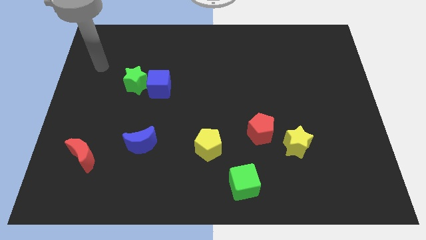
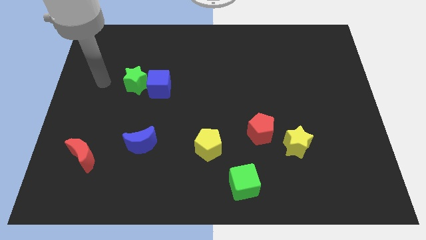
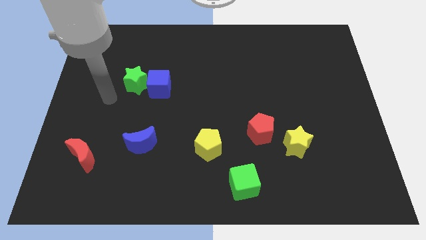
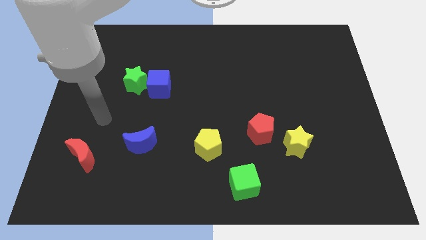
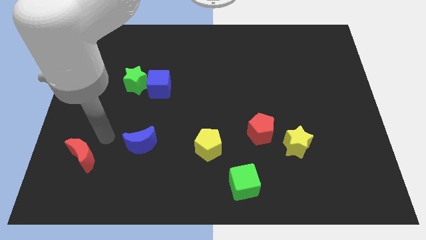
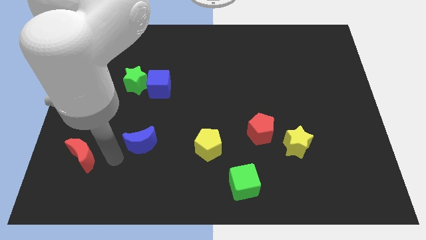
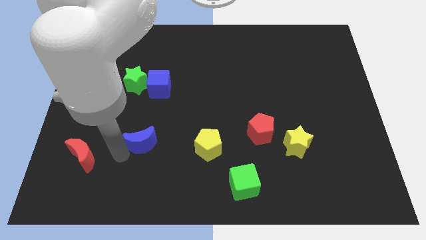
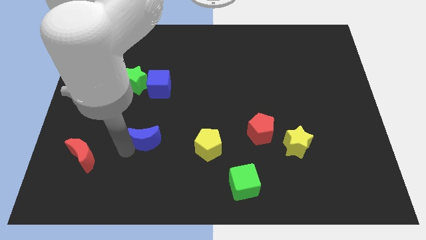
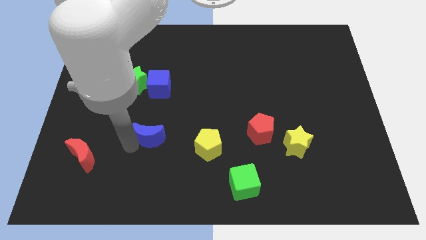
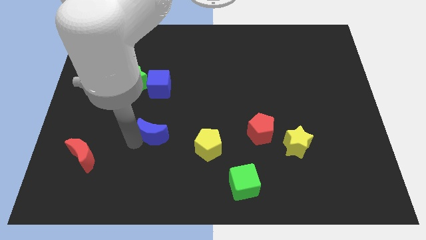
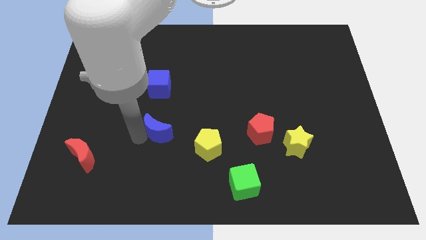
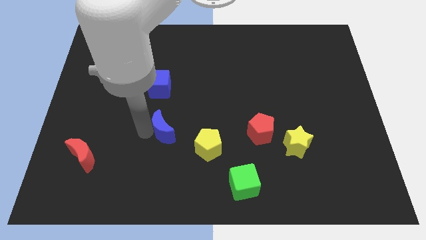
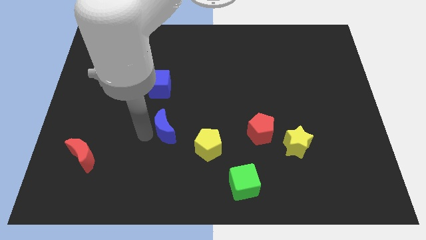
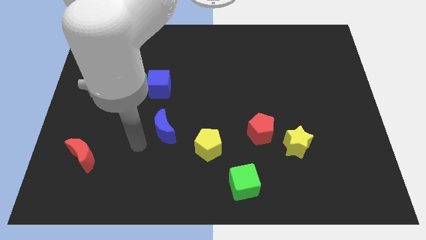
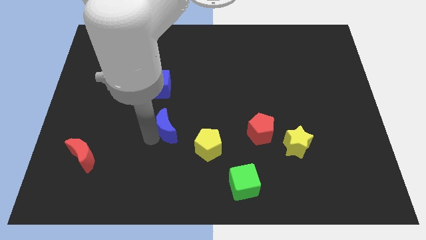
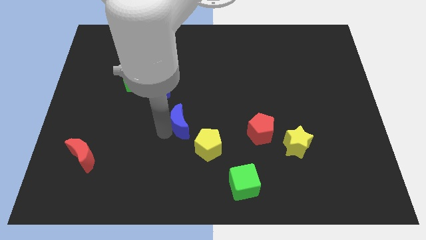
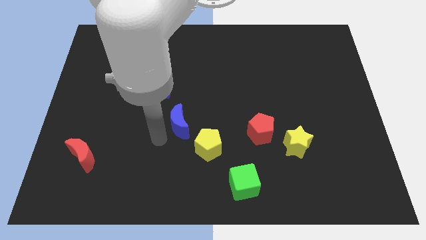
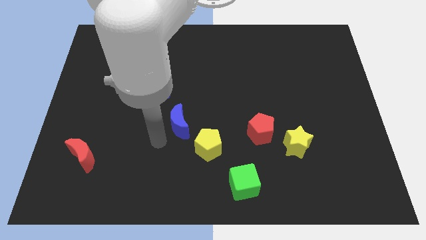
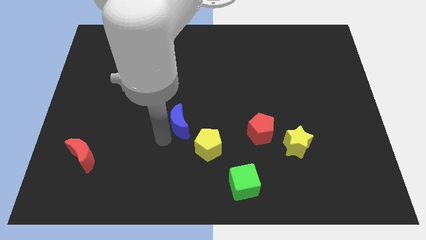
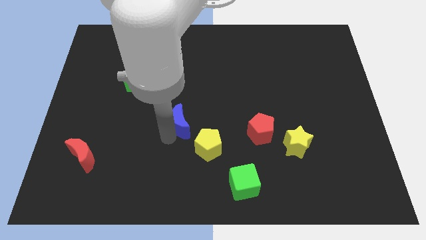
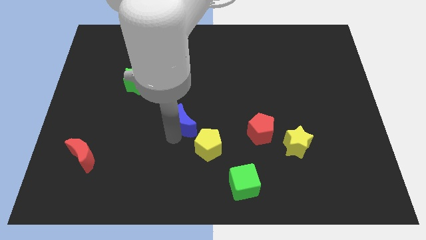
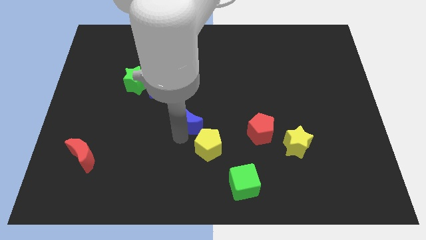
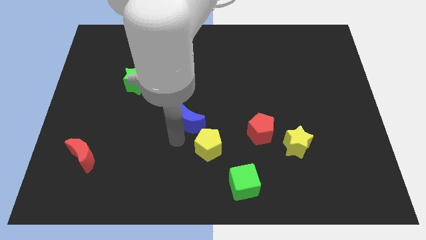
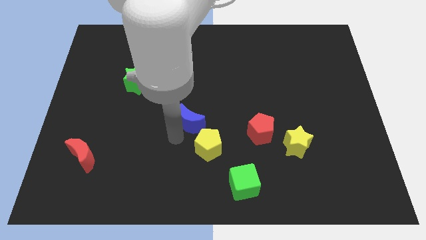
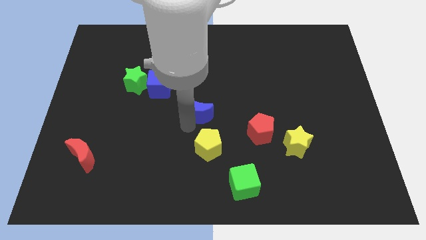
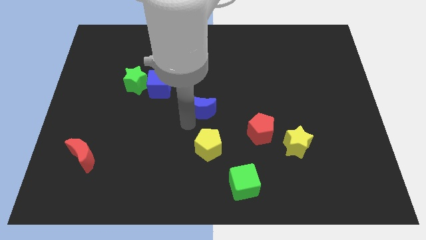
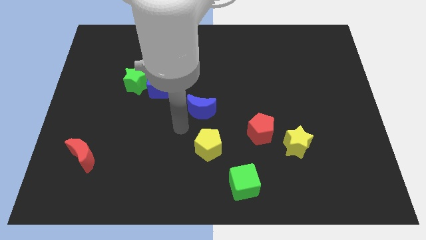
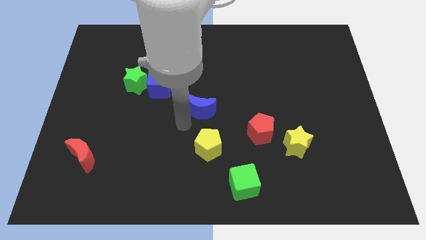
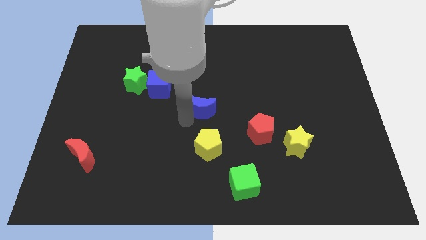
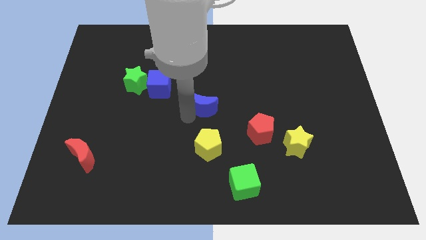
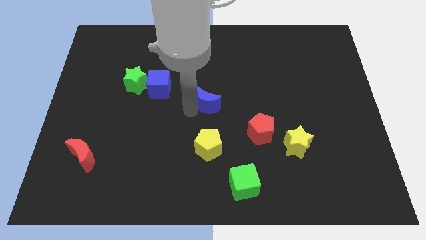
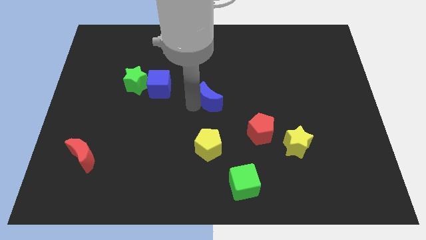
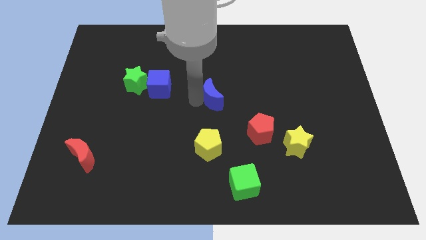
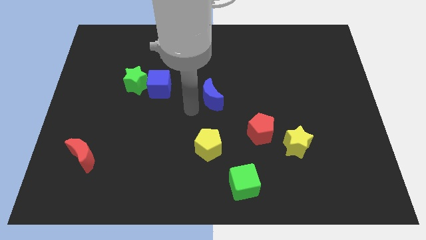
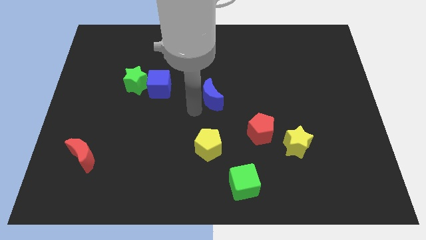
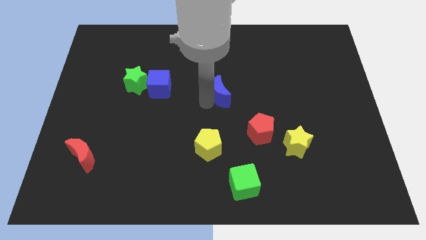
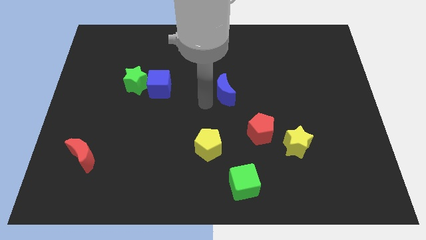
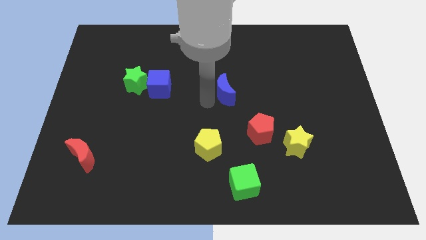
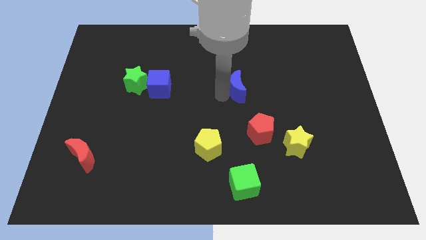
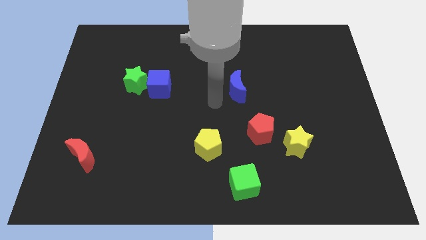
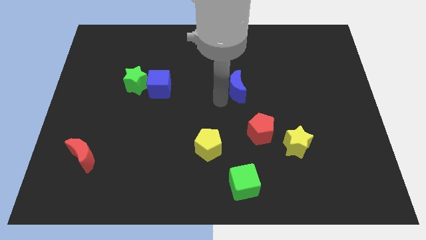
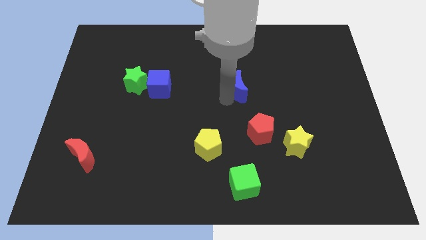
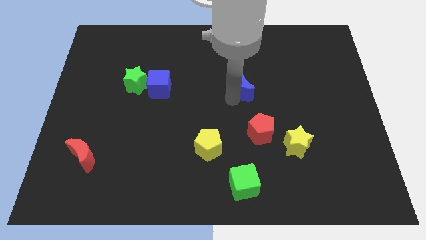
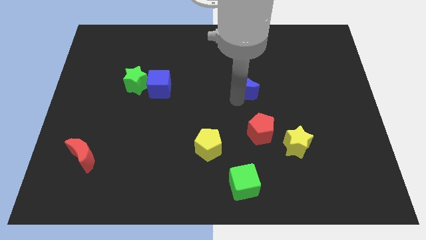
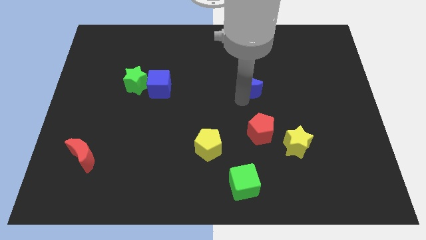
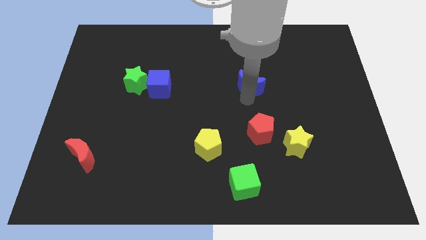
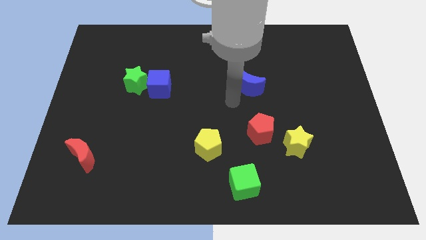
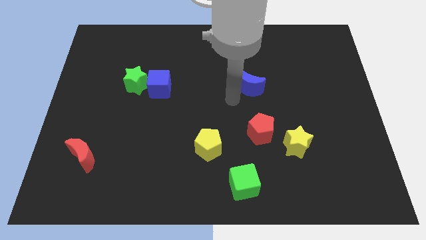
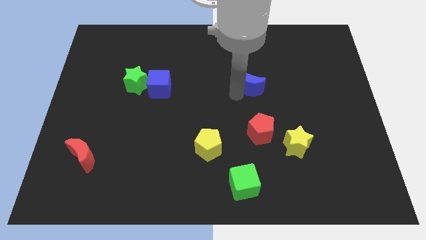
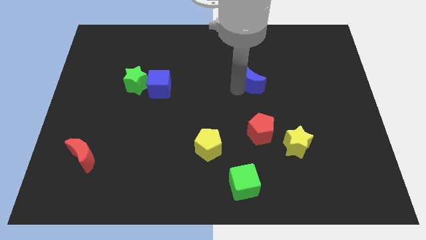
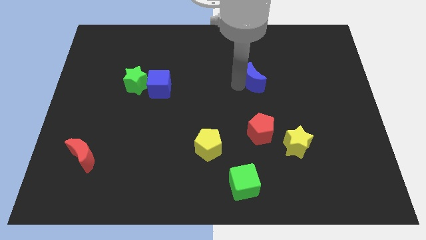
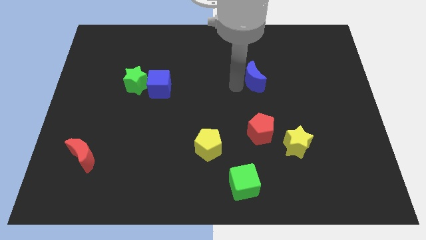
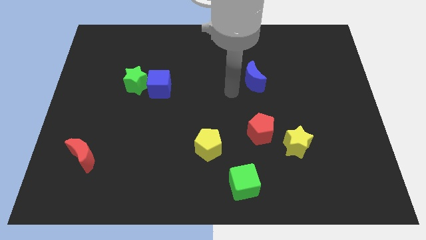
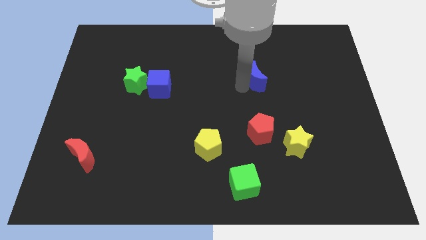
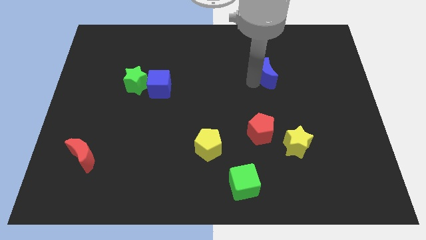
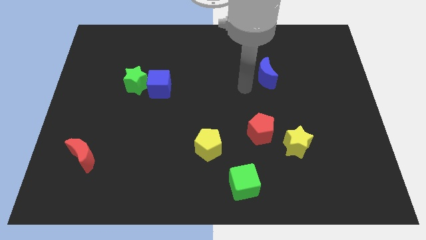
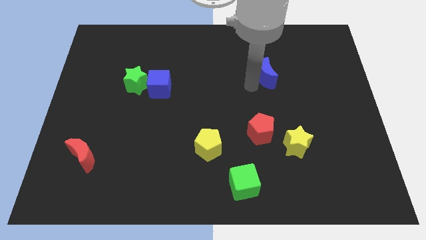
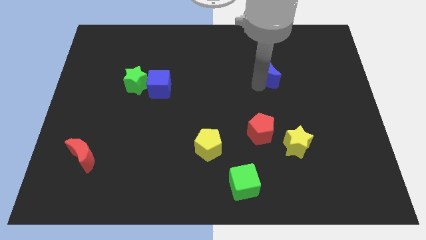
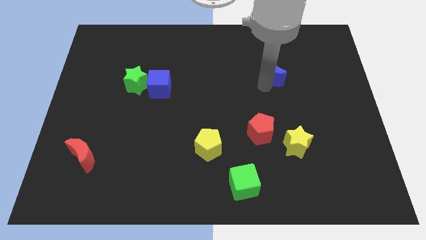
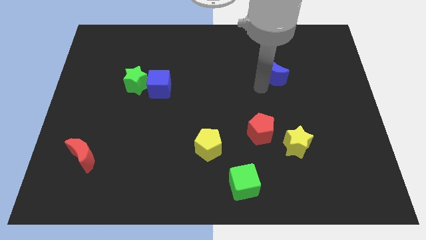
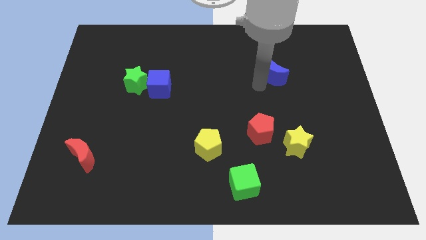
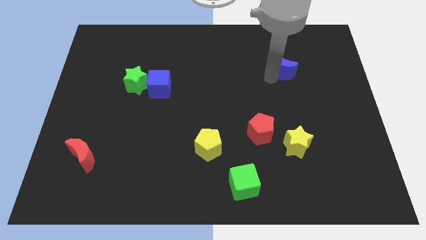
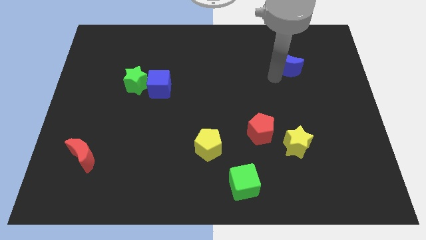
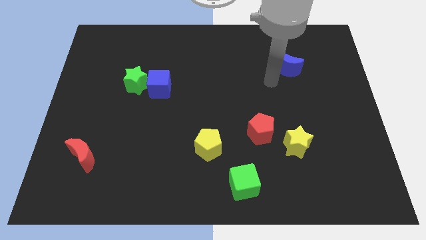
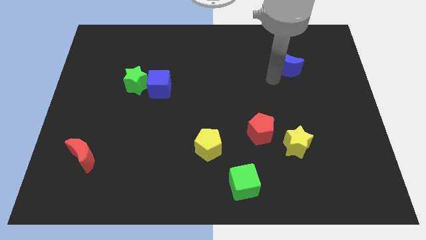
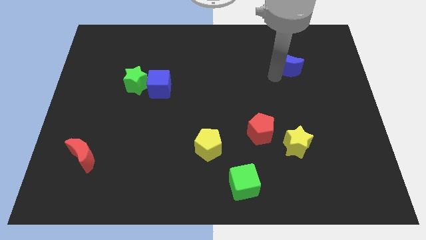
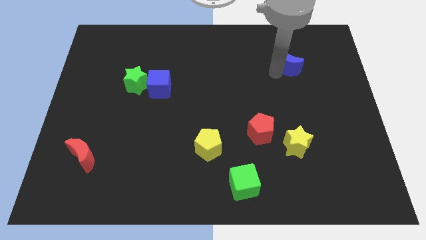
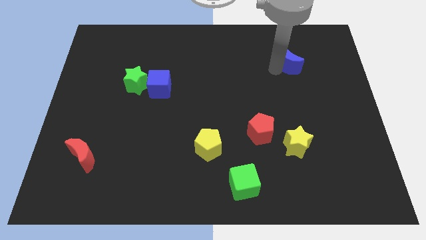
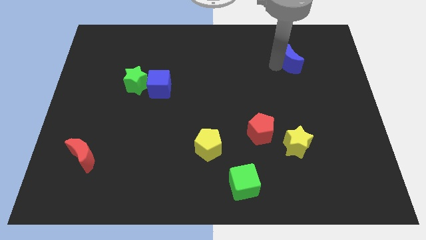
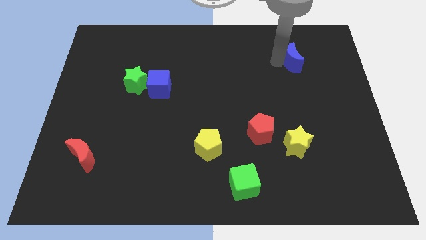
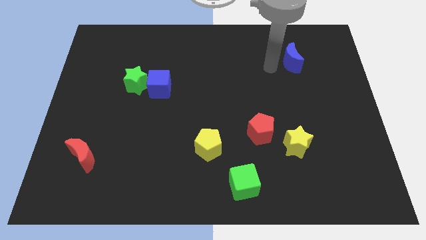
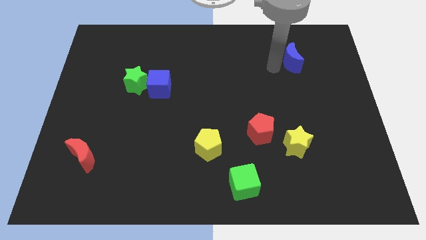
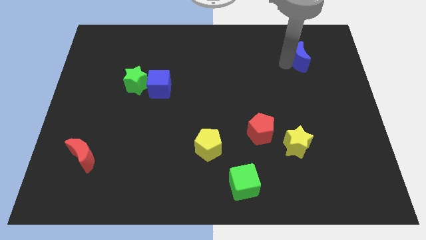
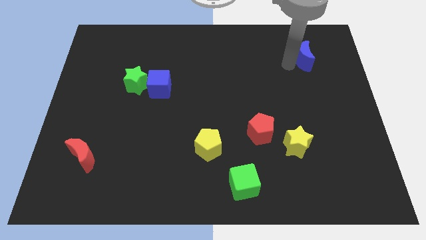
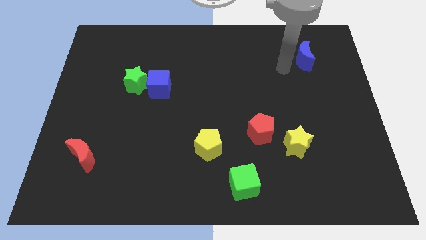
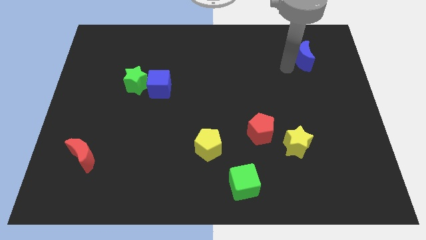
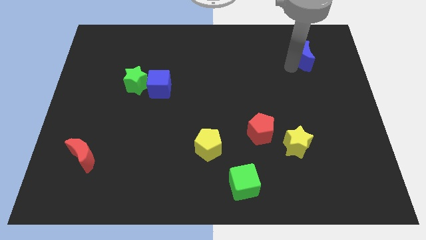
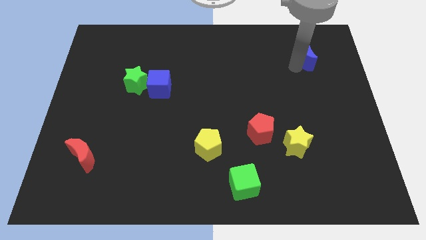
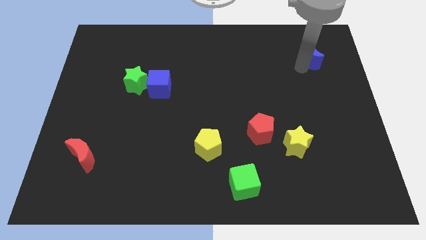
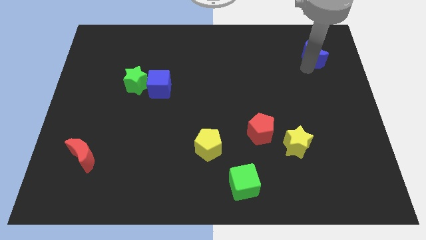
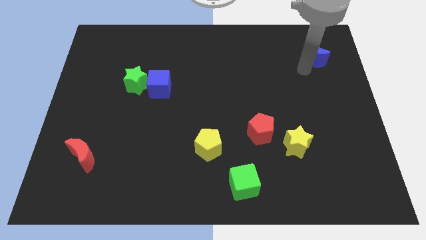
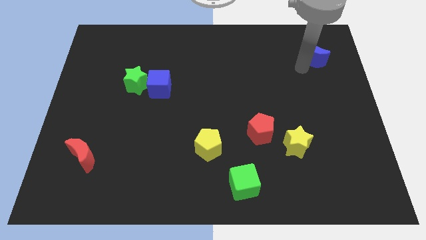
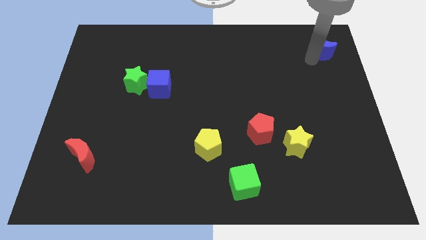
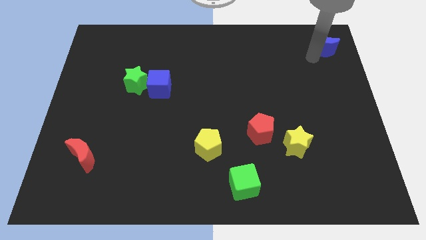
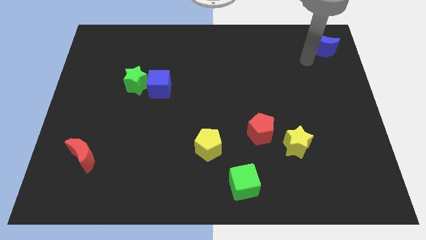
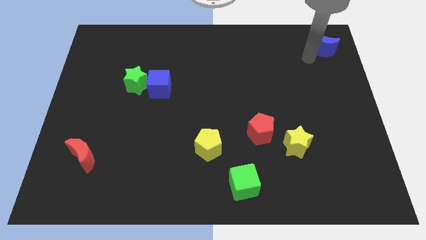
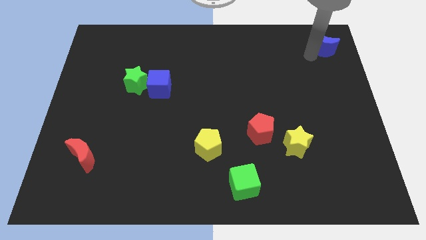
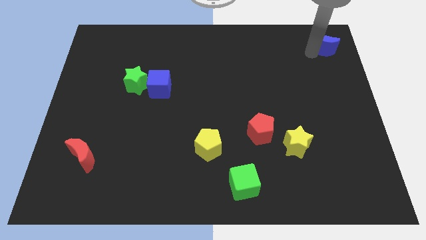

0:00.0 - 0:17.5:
slide the blue moon to the top right of the board
